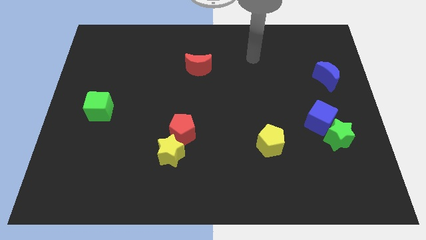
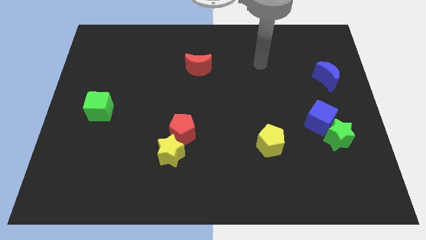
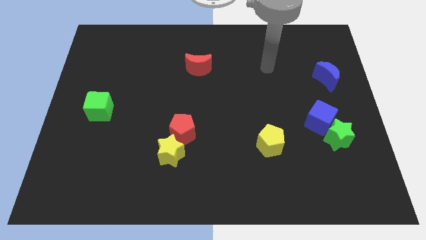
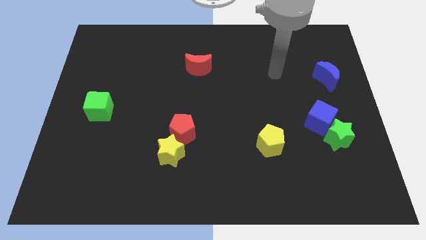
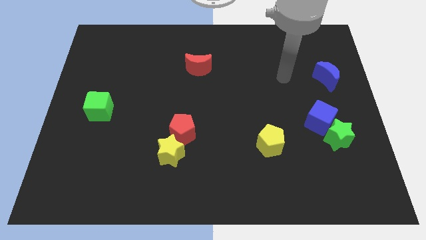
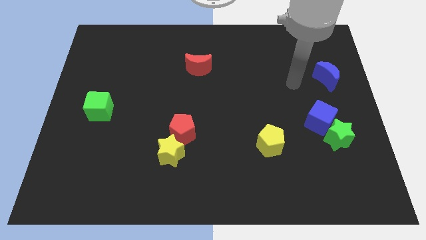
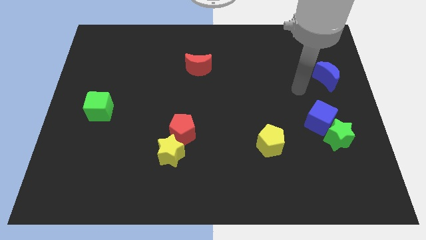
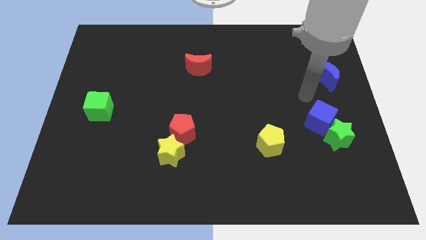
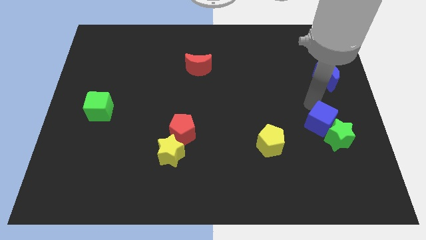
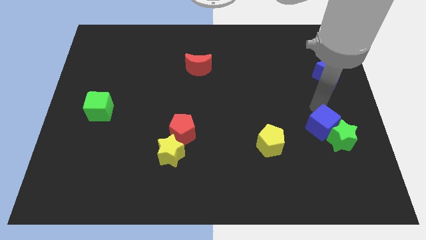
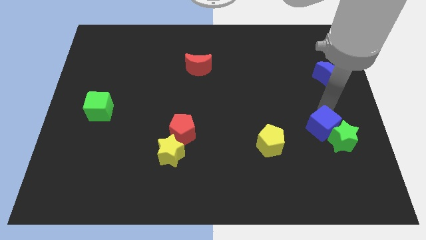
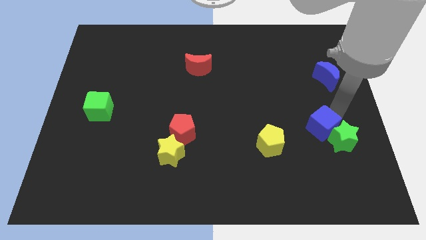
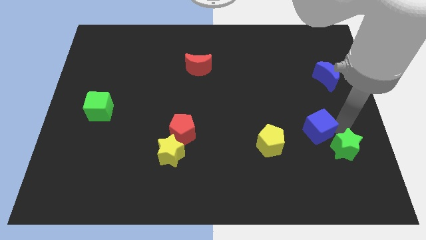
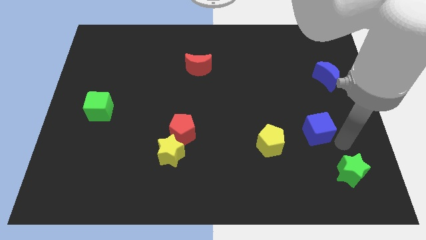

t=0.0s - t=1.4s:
pull the blue cube apart from the green star

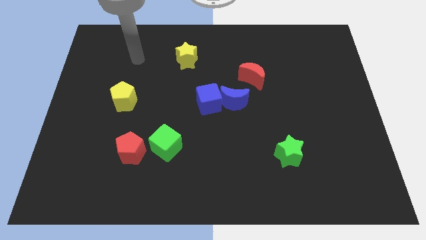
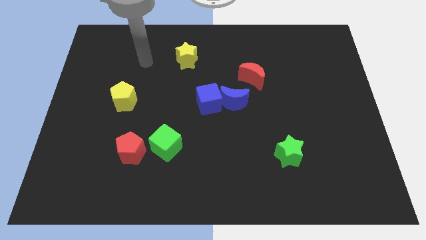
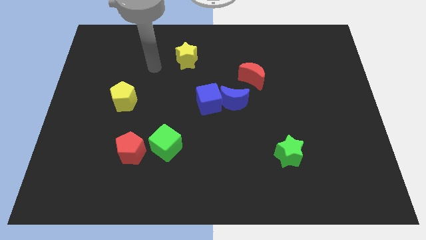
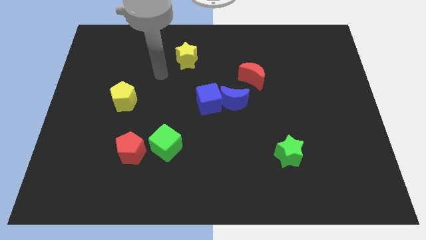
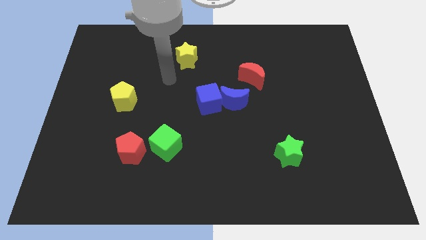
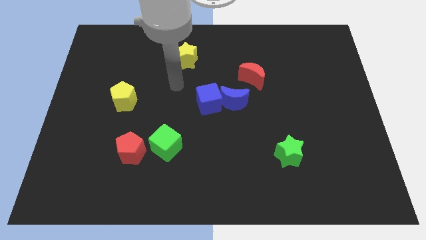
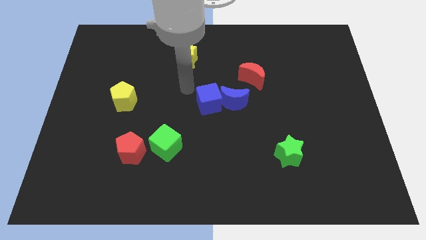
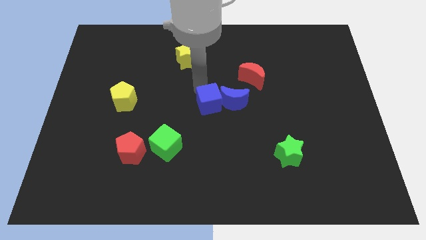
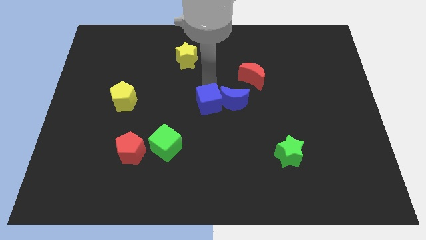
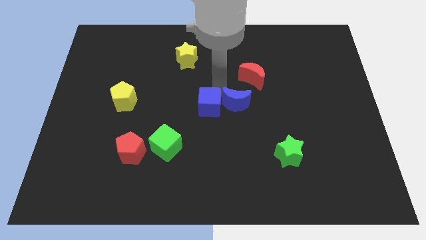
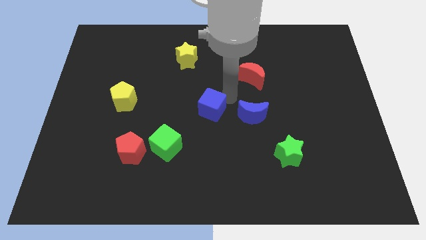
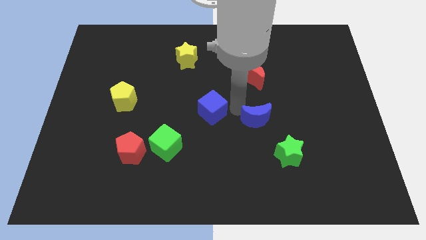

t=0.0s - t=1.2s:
pull the blue cube apart from the blue moon

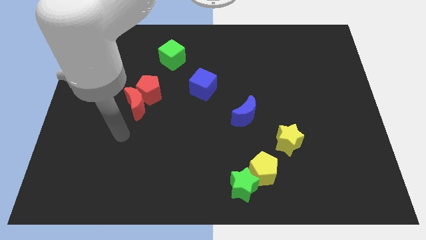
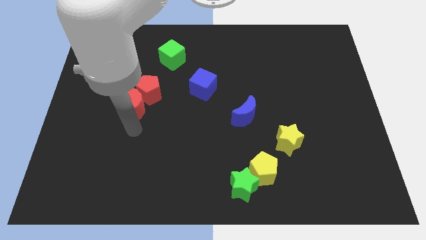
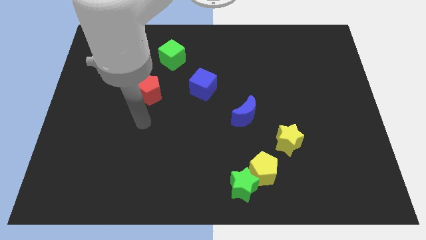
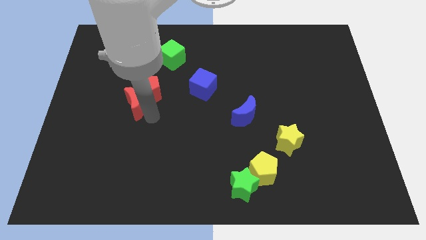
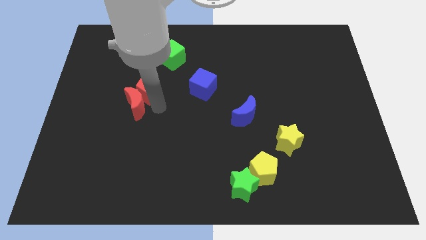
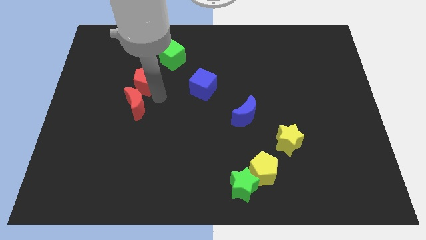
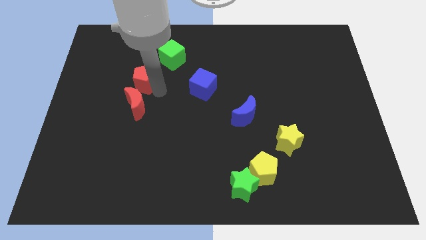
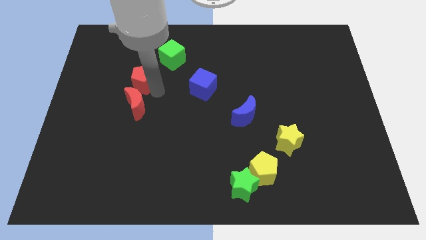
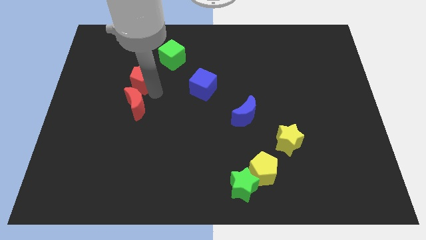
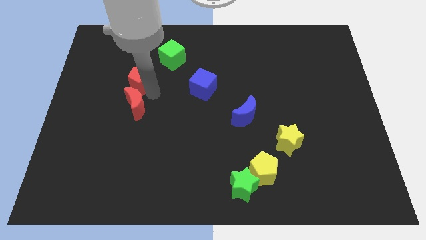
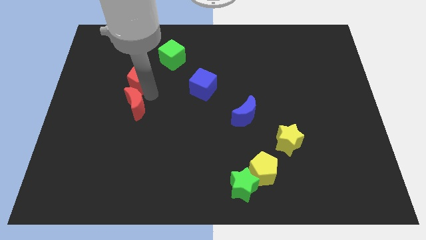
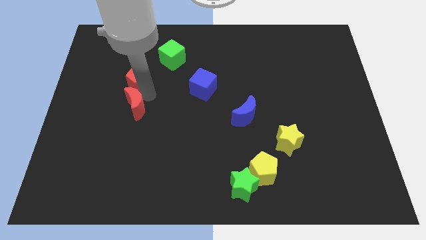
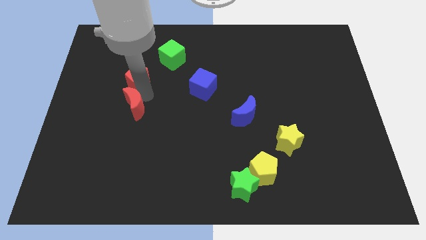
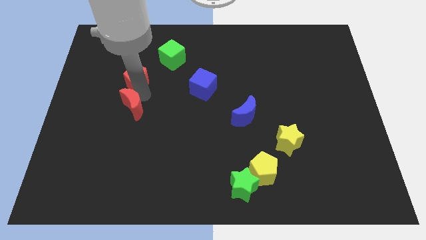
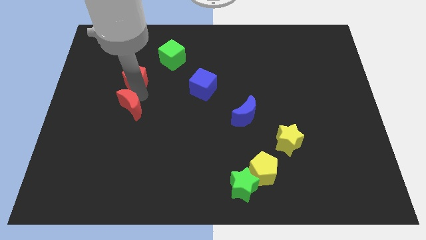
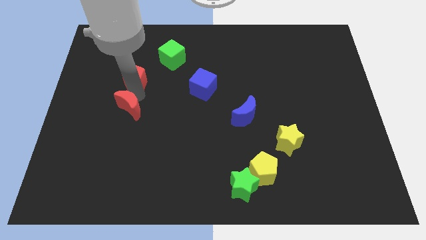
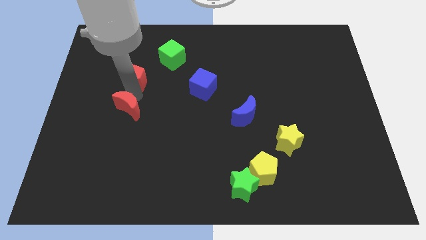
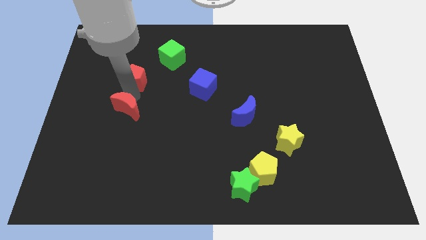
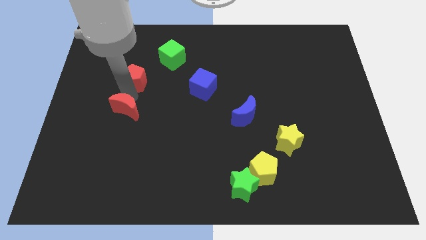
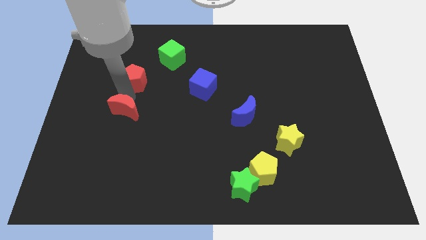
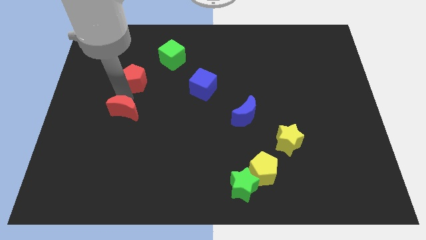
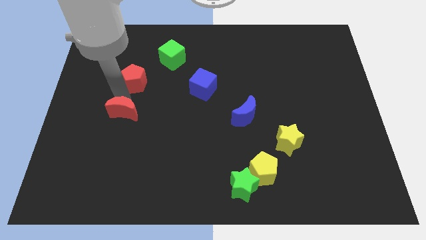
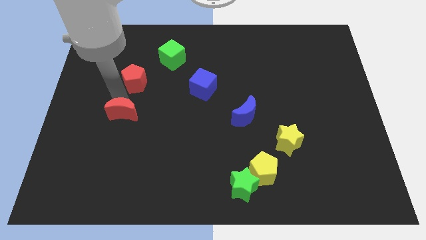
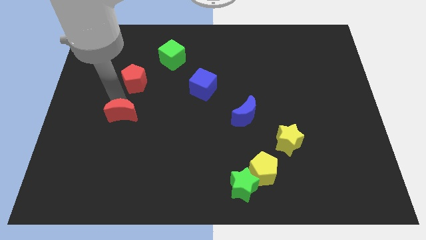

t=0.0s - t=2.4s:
move the red moon away from the red pentagon

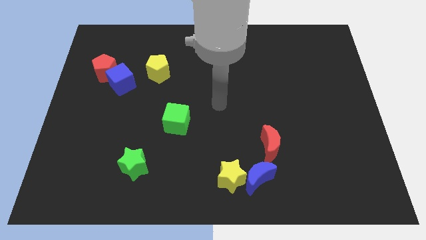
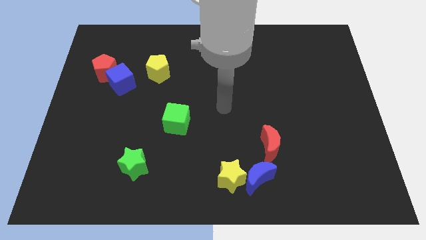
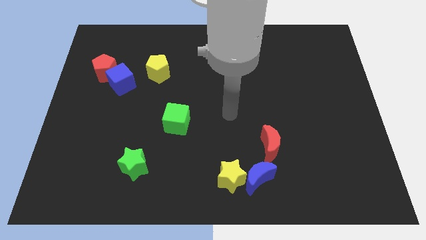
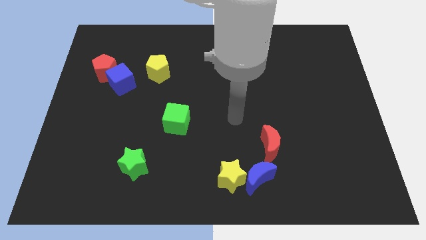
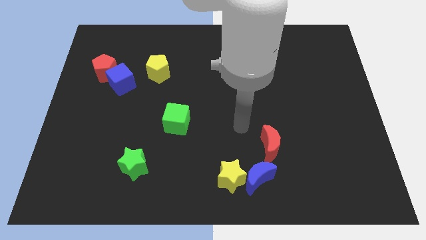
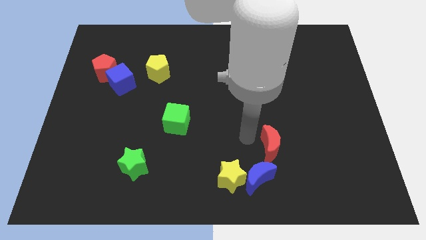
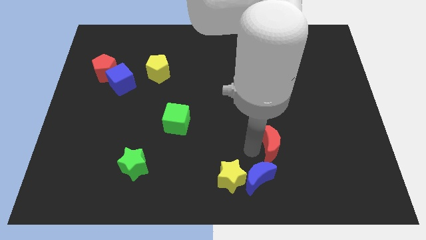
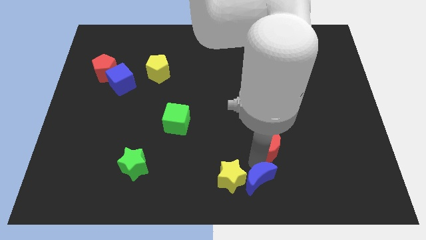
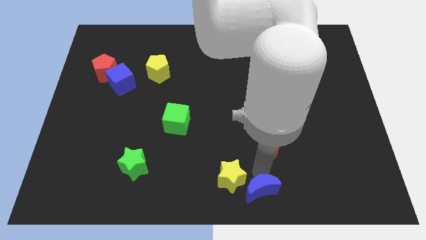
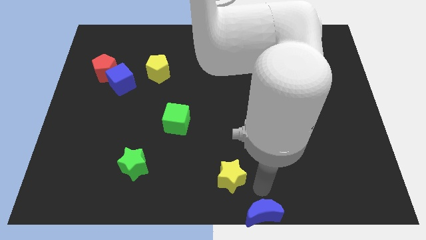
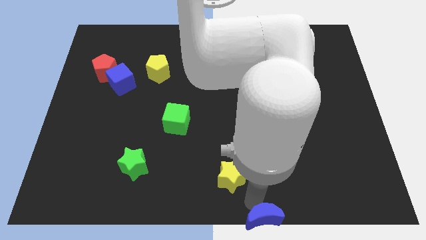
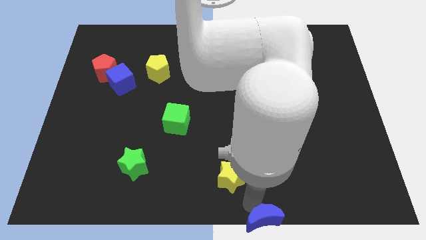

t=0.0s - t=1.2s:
separate the yellow star from the blue moon

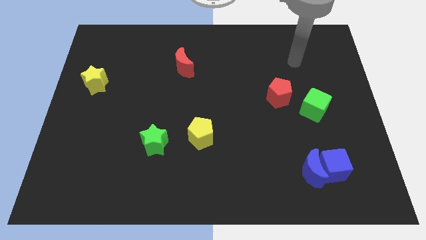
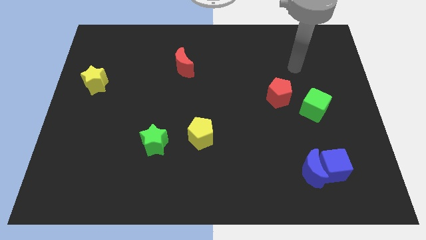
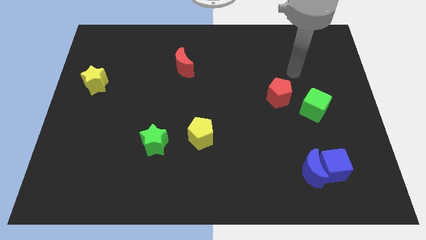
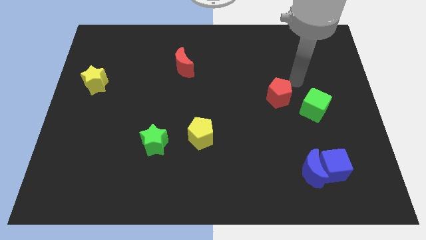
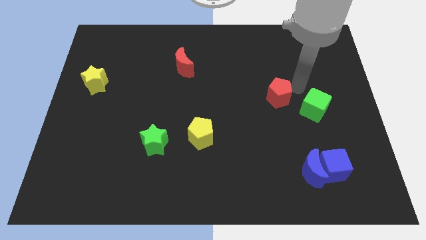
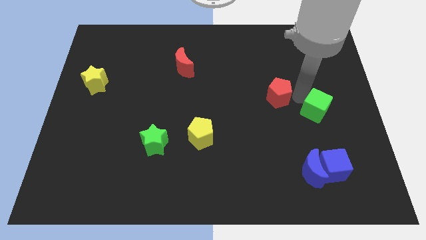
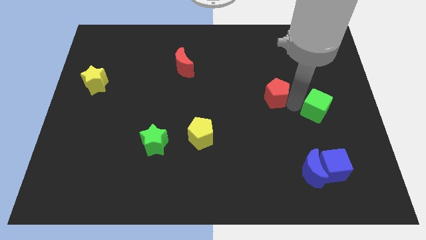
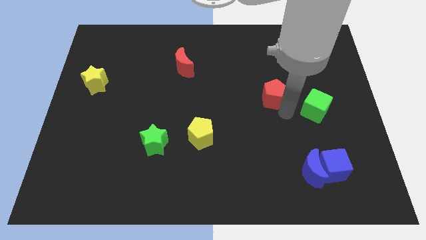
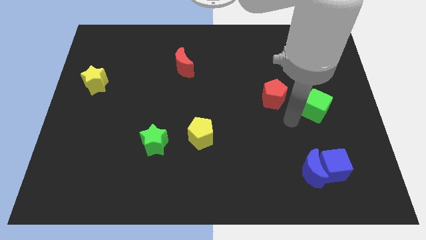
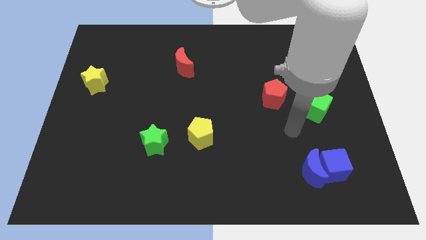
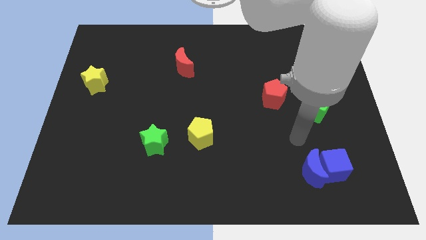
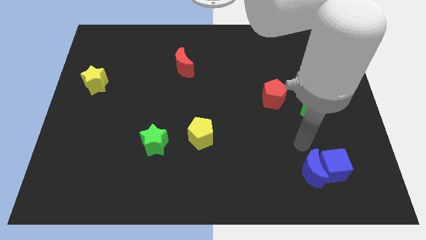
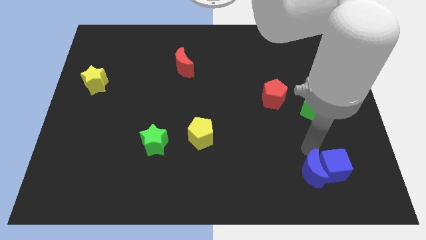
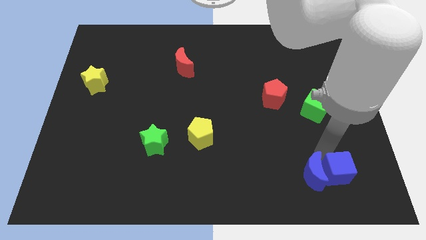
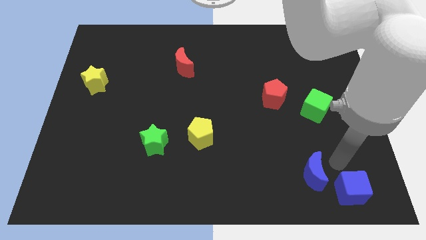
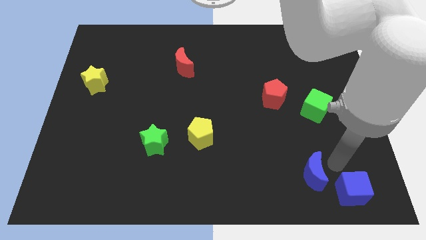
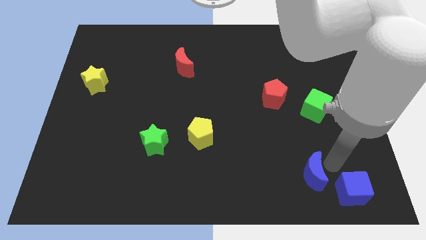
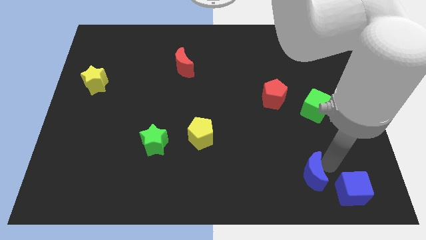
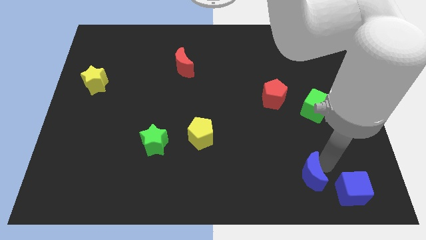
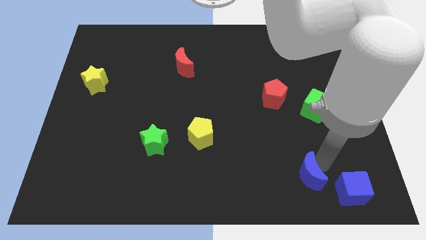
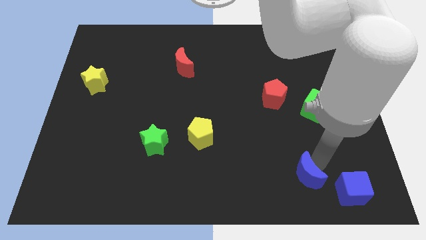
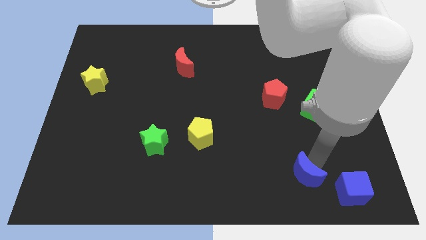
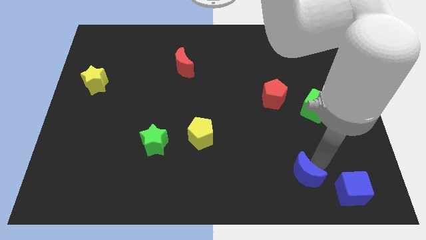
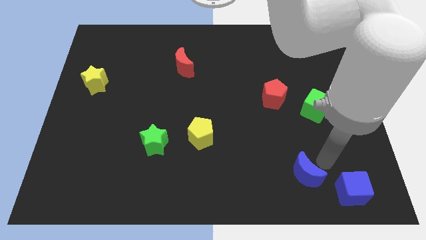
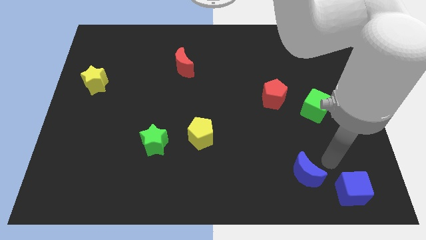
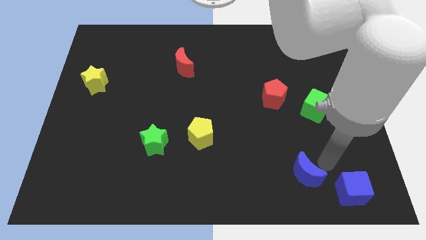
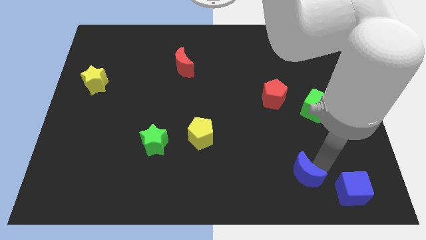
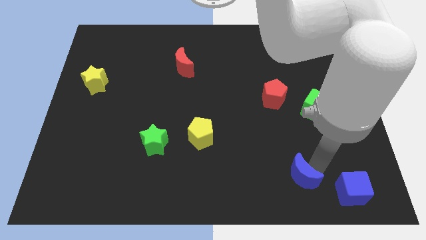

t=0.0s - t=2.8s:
pull the blue moon apart from the blue cube

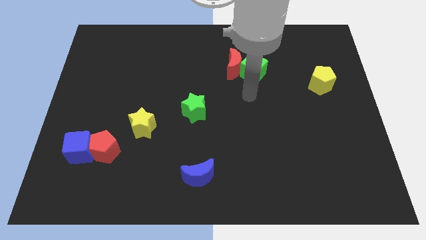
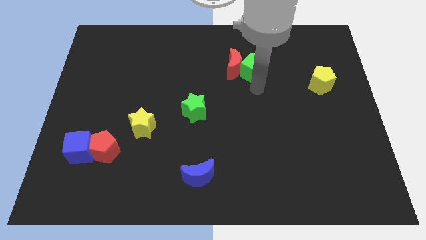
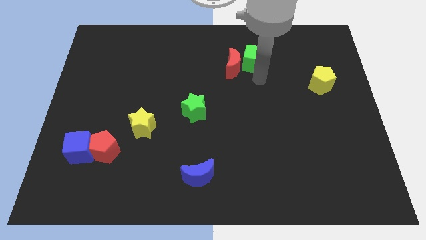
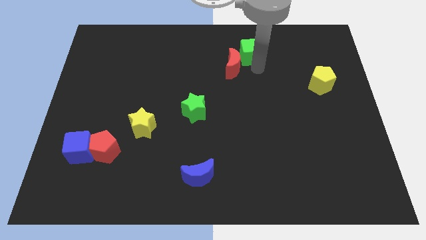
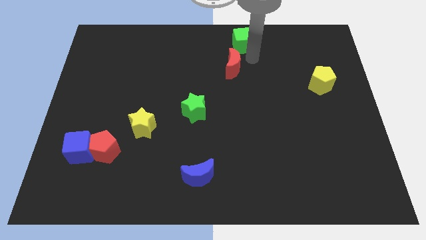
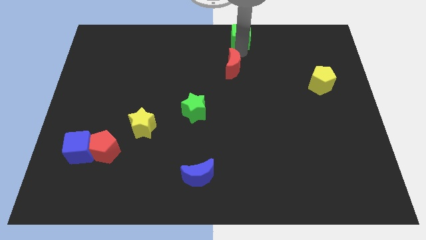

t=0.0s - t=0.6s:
move the red moon away from the green cube
